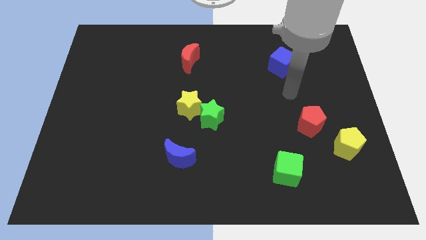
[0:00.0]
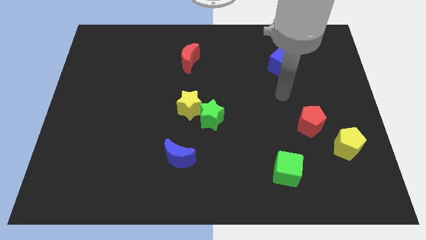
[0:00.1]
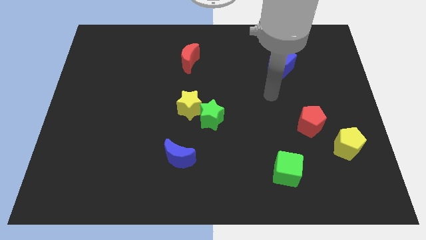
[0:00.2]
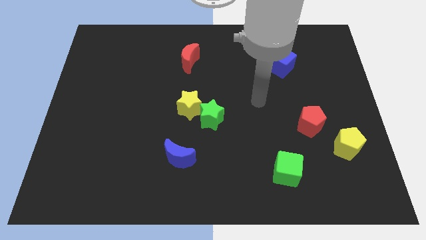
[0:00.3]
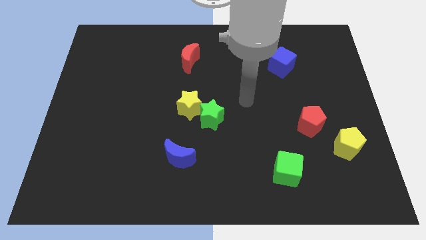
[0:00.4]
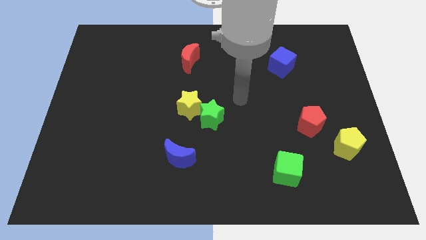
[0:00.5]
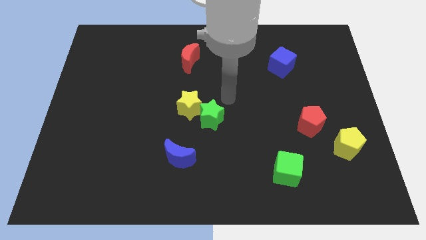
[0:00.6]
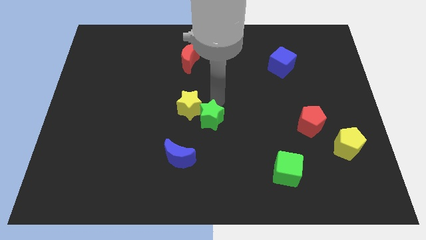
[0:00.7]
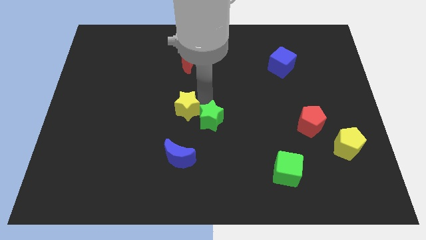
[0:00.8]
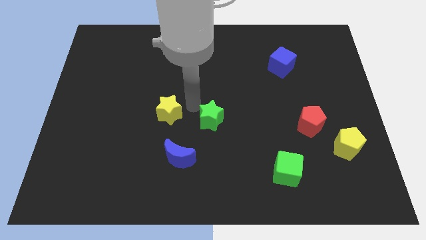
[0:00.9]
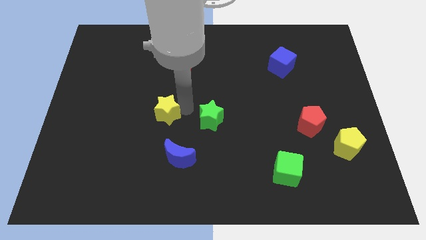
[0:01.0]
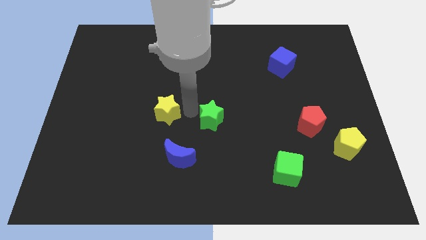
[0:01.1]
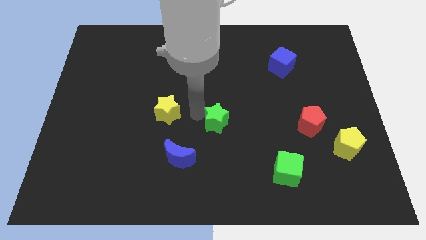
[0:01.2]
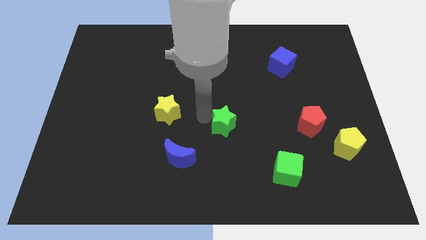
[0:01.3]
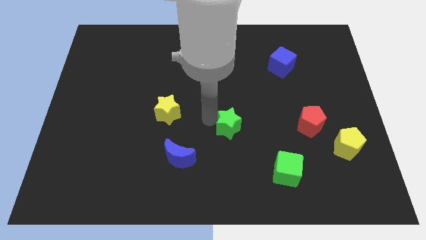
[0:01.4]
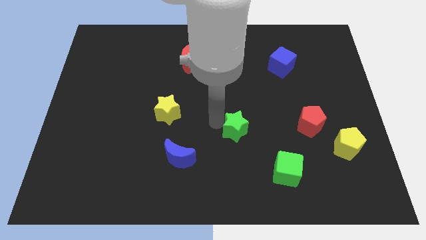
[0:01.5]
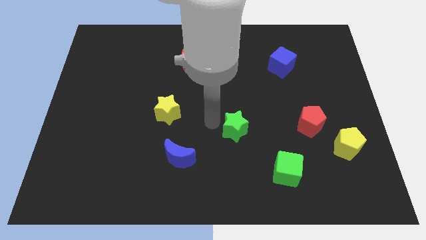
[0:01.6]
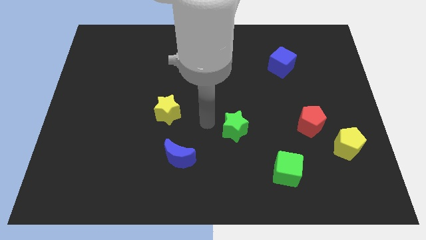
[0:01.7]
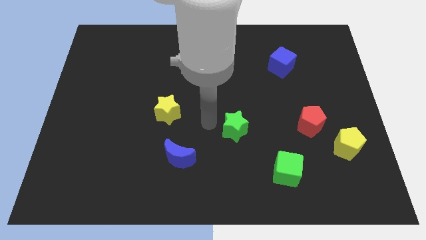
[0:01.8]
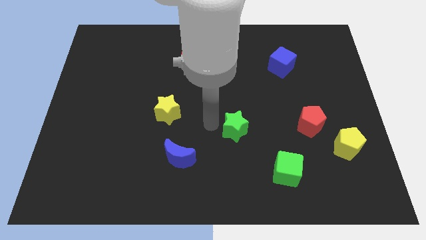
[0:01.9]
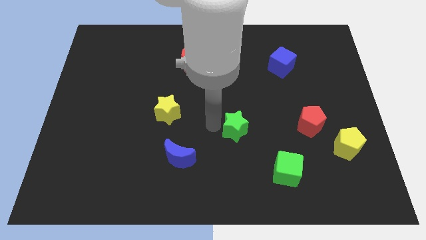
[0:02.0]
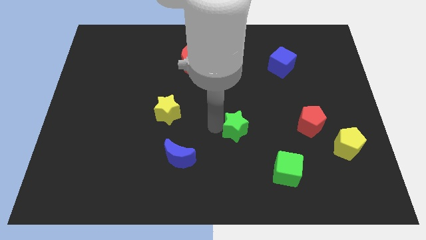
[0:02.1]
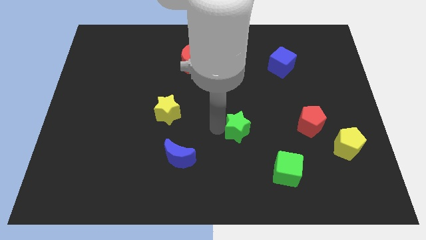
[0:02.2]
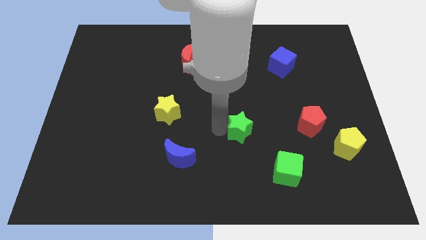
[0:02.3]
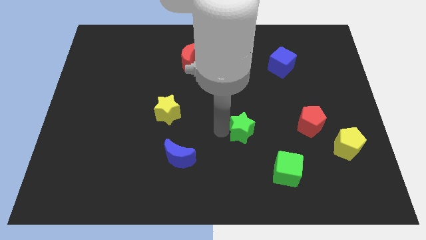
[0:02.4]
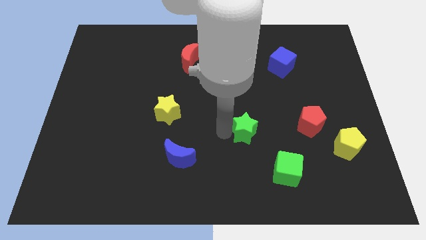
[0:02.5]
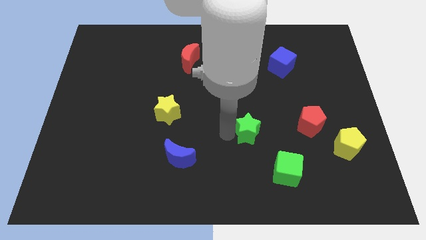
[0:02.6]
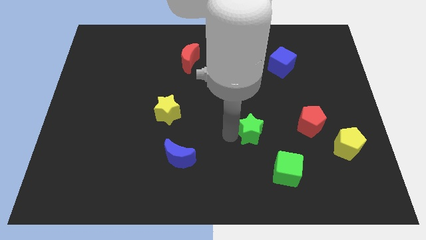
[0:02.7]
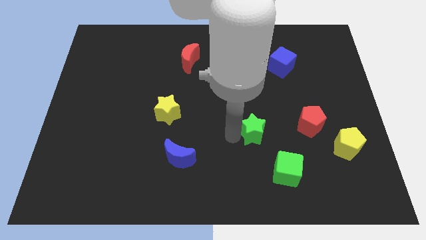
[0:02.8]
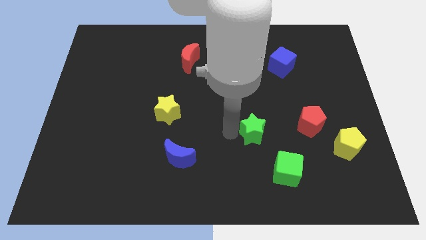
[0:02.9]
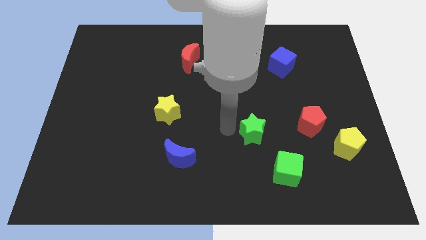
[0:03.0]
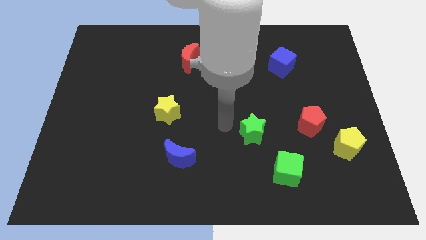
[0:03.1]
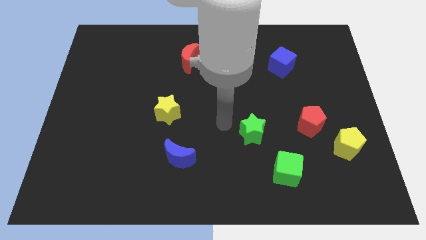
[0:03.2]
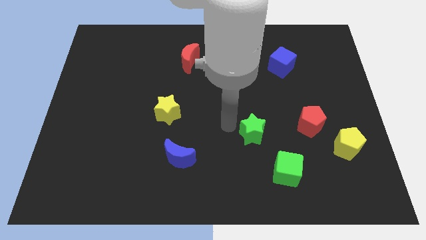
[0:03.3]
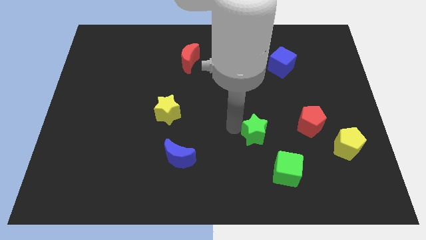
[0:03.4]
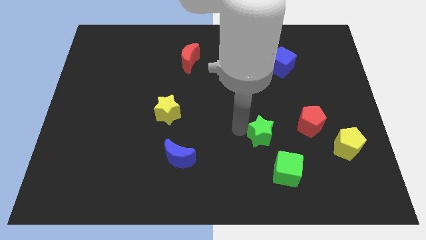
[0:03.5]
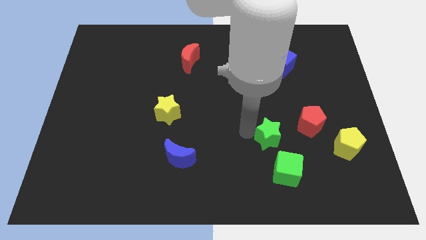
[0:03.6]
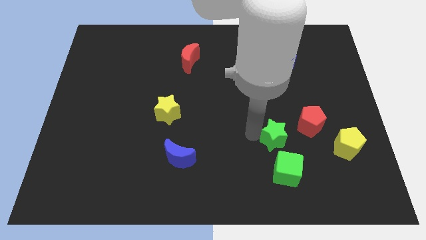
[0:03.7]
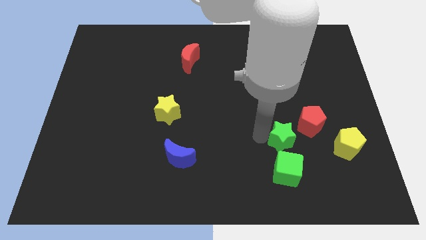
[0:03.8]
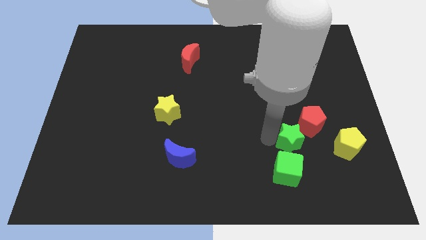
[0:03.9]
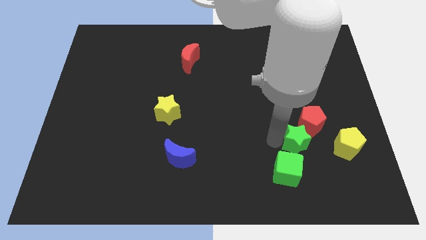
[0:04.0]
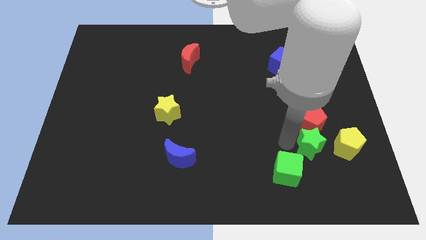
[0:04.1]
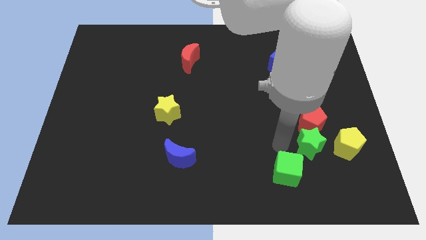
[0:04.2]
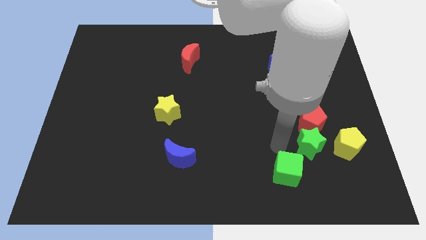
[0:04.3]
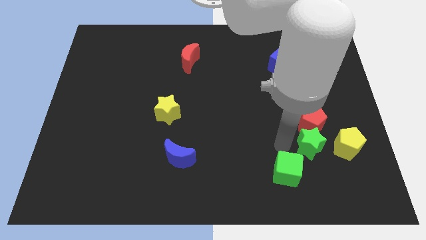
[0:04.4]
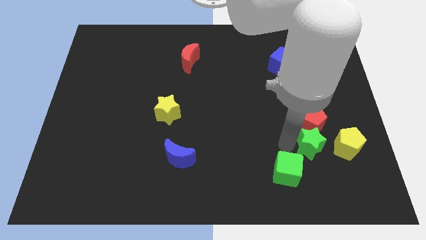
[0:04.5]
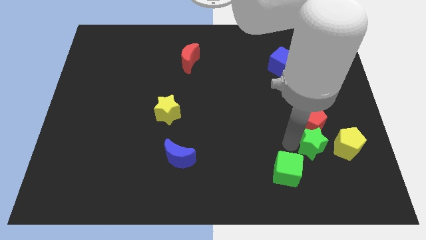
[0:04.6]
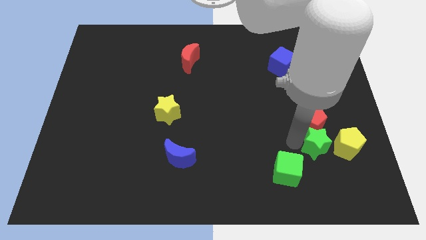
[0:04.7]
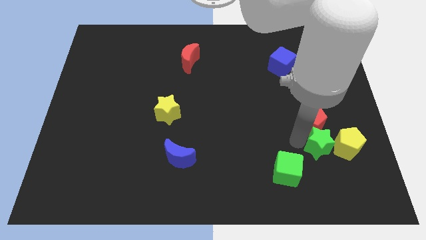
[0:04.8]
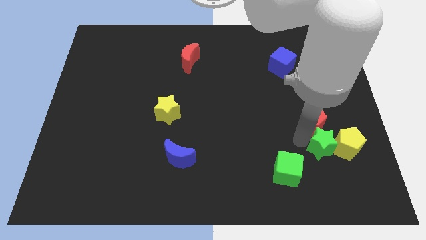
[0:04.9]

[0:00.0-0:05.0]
move the green star to the yellow pentagon

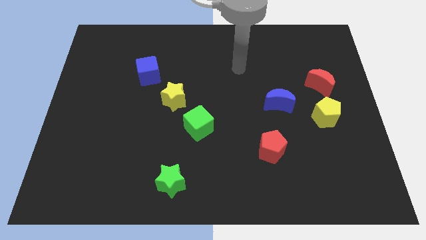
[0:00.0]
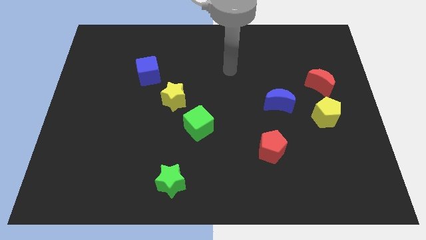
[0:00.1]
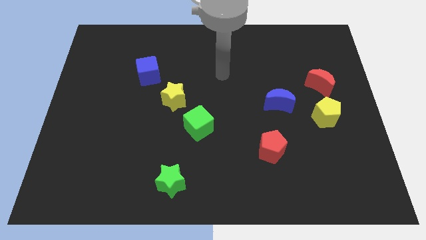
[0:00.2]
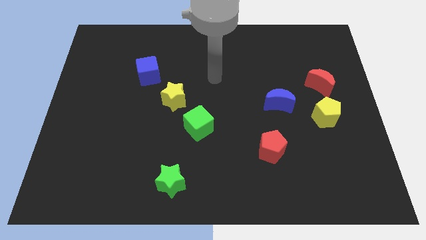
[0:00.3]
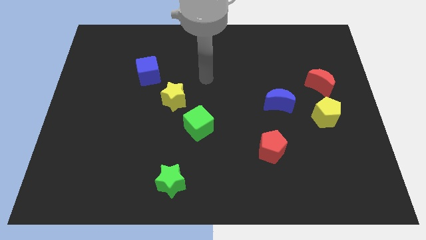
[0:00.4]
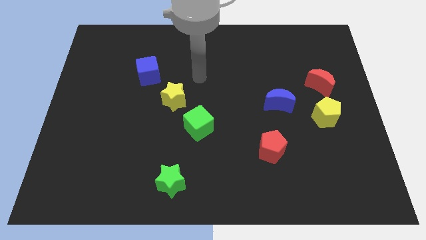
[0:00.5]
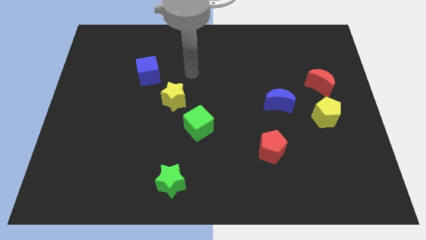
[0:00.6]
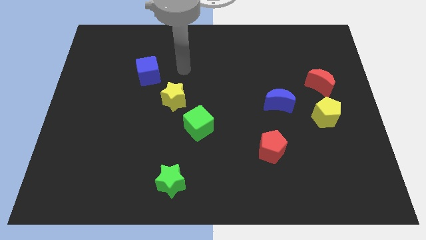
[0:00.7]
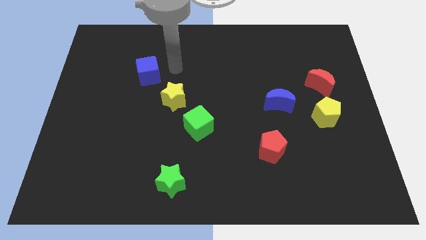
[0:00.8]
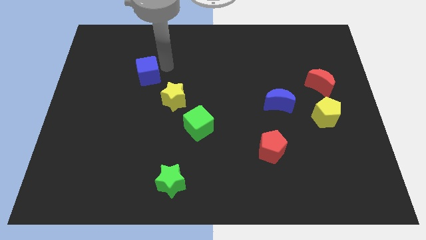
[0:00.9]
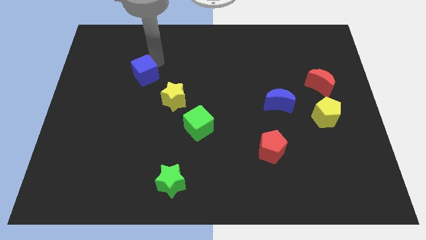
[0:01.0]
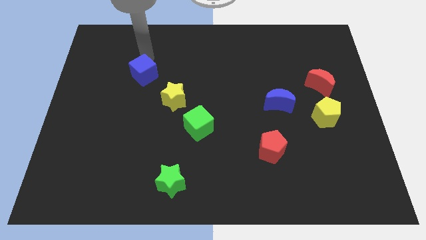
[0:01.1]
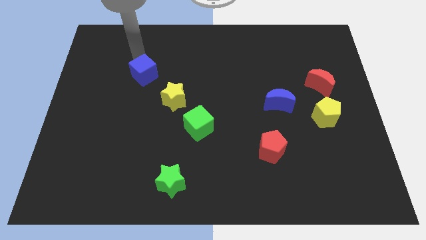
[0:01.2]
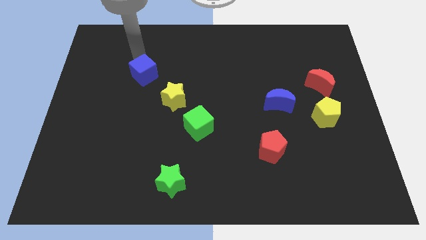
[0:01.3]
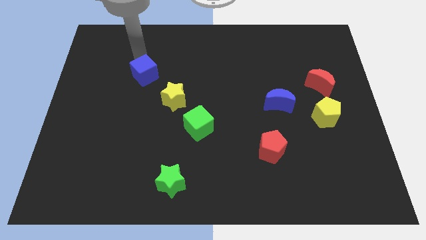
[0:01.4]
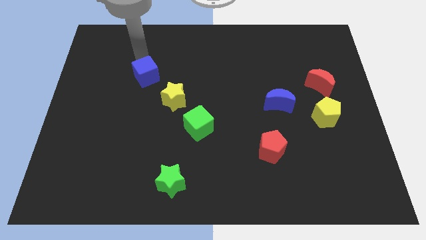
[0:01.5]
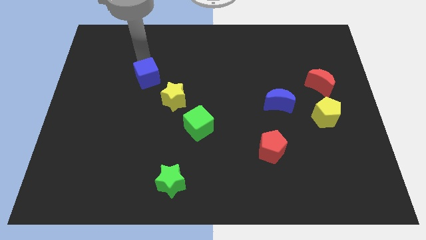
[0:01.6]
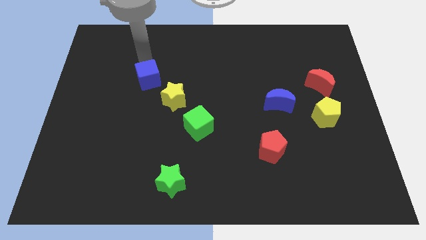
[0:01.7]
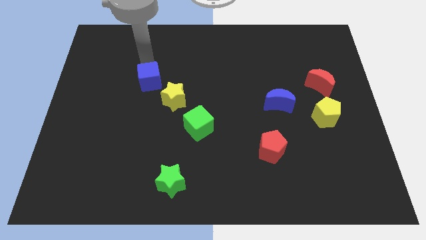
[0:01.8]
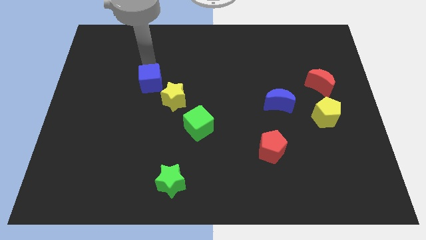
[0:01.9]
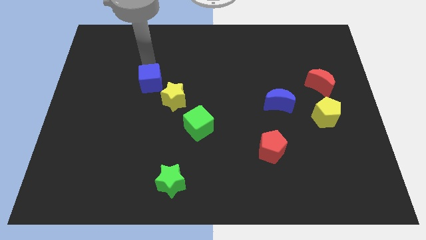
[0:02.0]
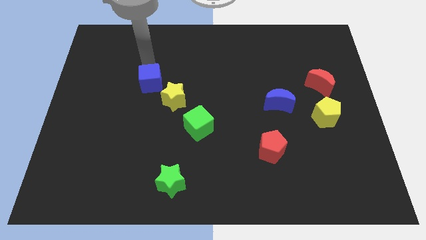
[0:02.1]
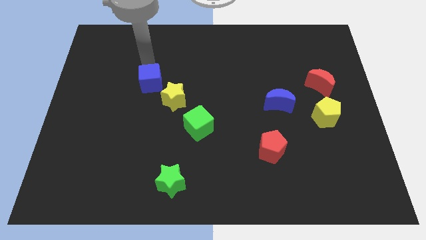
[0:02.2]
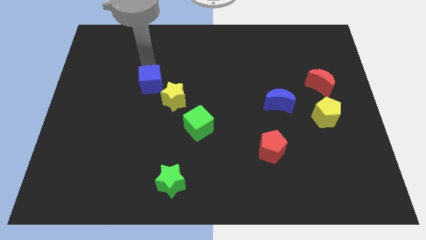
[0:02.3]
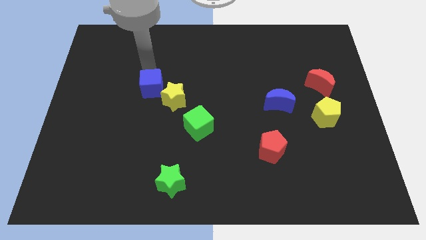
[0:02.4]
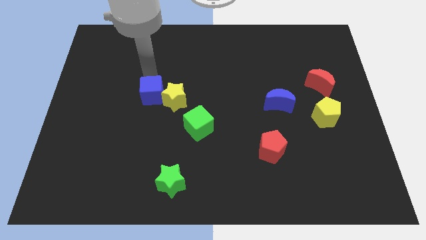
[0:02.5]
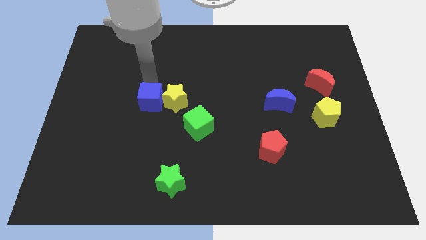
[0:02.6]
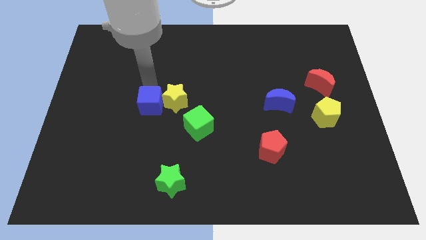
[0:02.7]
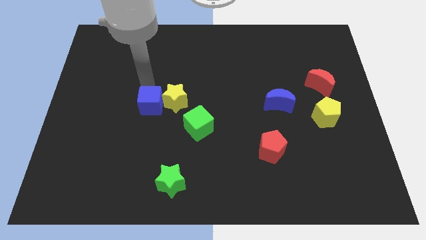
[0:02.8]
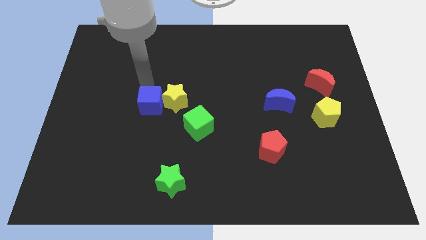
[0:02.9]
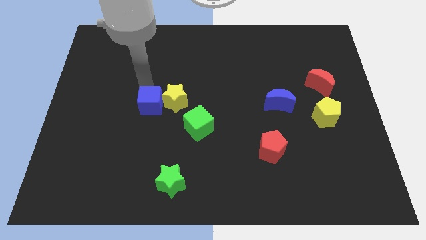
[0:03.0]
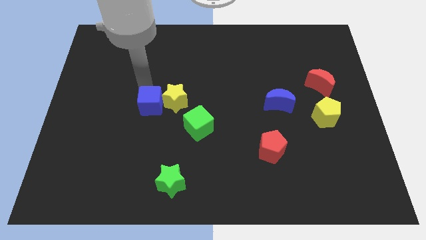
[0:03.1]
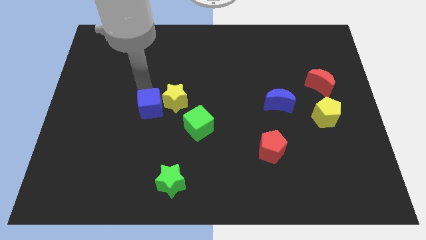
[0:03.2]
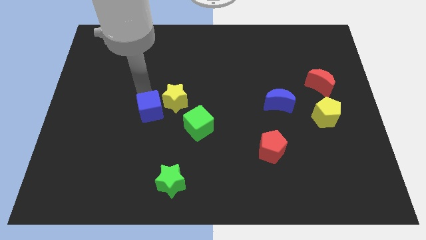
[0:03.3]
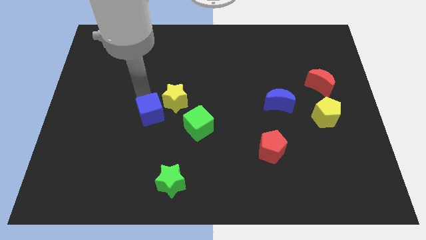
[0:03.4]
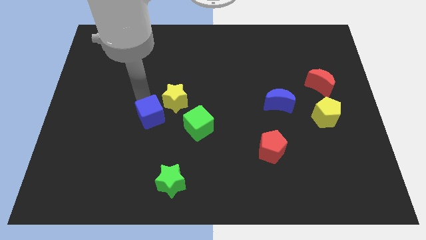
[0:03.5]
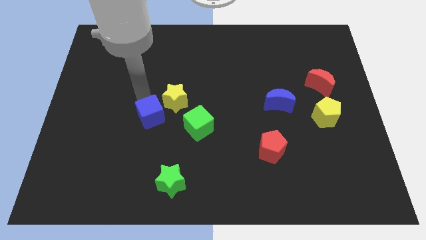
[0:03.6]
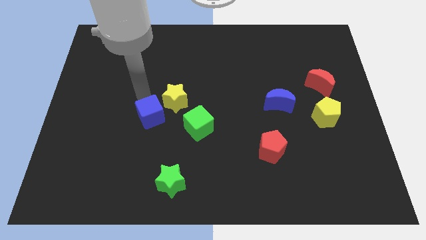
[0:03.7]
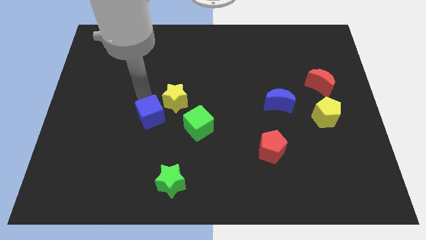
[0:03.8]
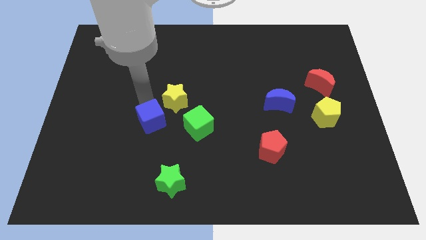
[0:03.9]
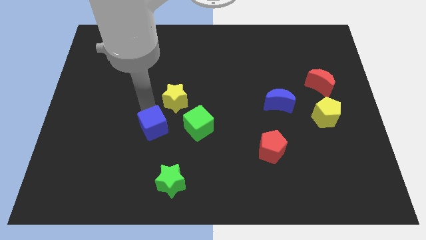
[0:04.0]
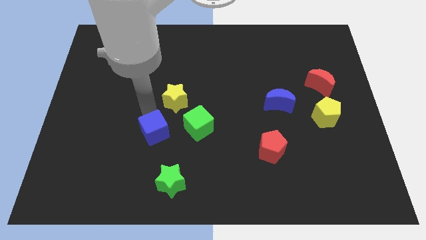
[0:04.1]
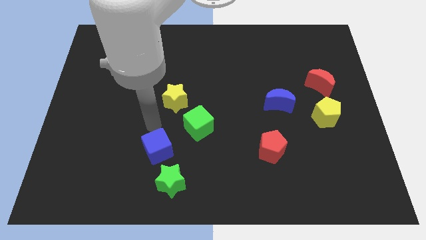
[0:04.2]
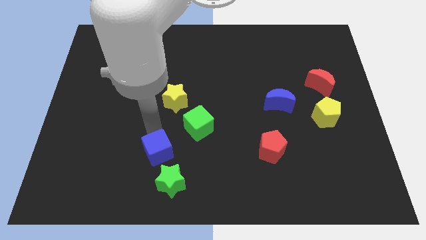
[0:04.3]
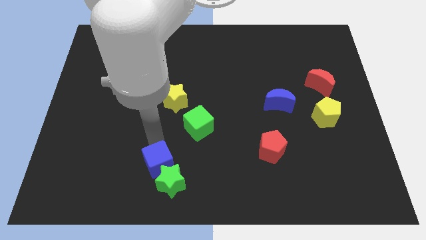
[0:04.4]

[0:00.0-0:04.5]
push the blue cube next to the green star
